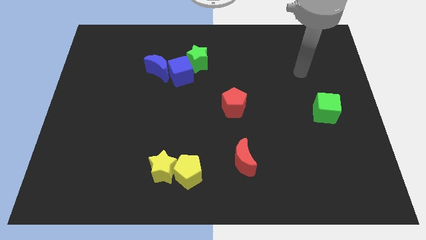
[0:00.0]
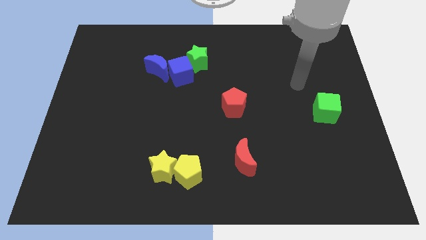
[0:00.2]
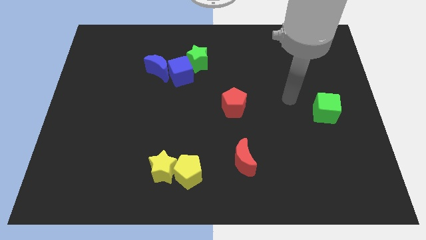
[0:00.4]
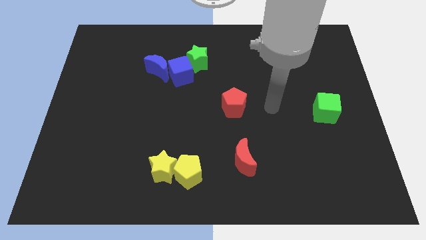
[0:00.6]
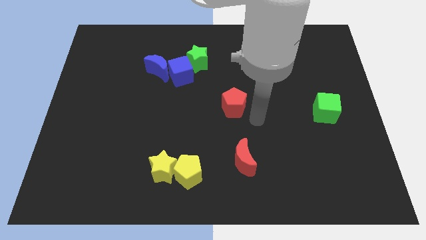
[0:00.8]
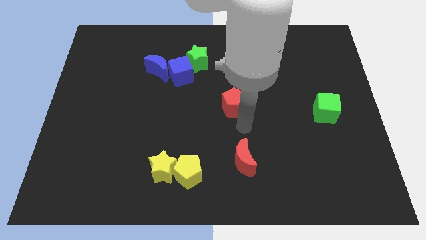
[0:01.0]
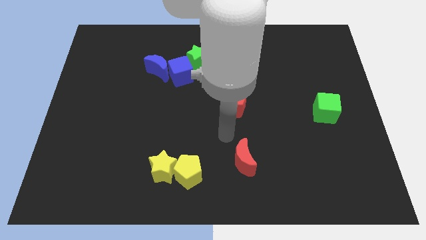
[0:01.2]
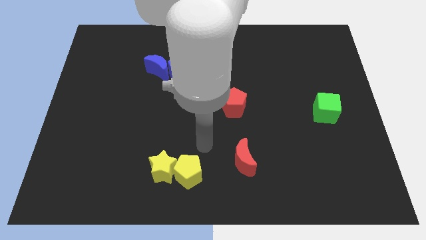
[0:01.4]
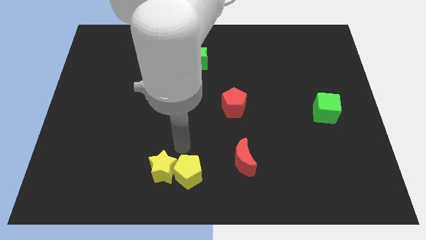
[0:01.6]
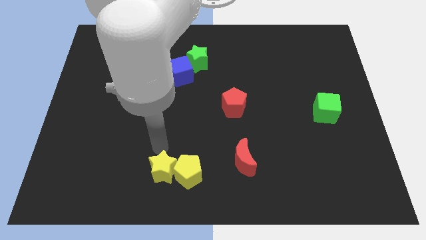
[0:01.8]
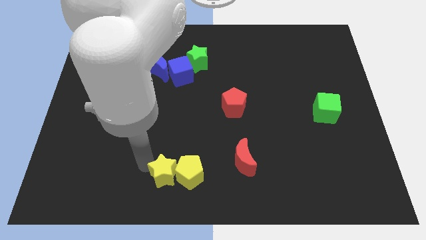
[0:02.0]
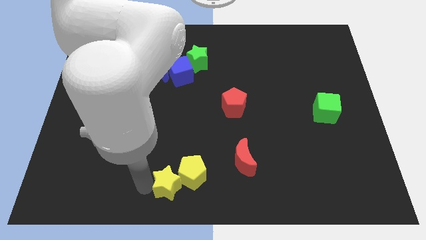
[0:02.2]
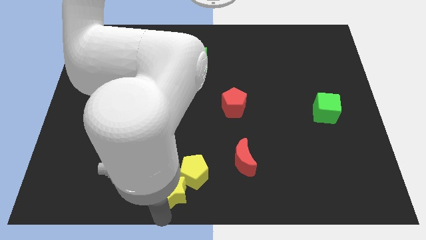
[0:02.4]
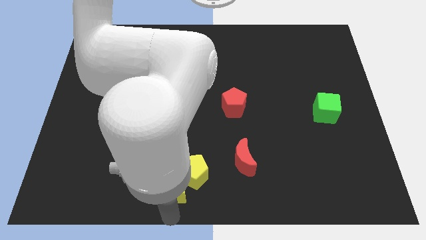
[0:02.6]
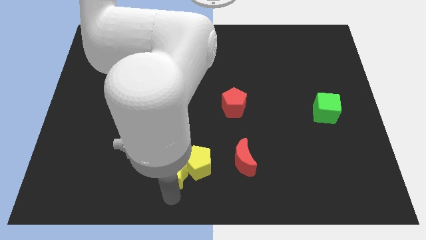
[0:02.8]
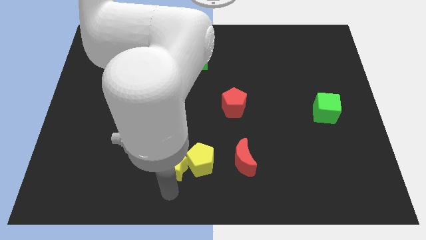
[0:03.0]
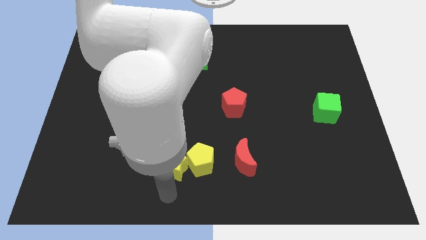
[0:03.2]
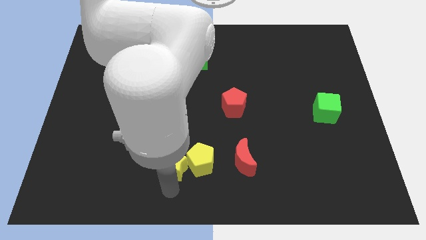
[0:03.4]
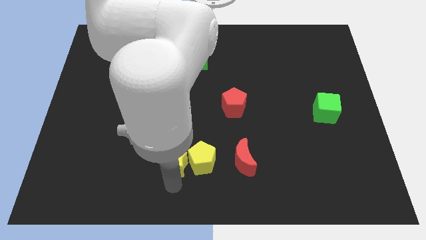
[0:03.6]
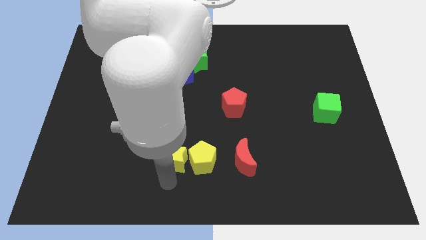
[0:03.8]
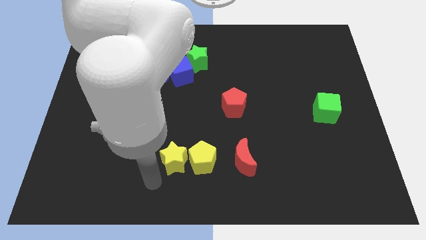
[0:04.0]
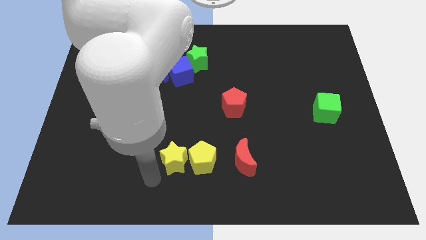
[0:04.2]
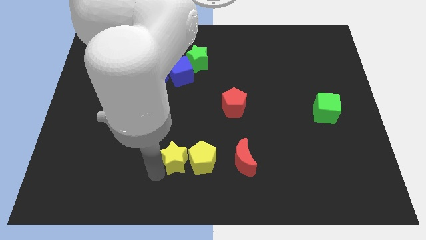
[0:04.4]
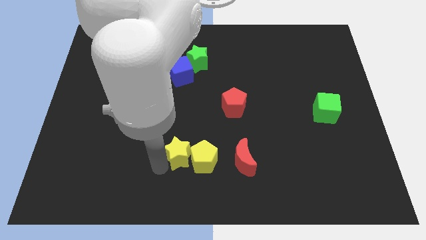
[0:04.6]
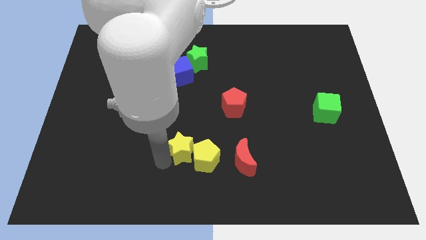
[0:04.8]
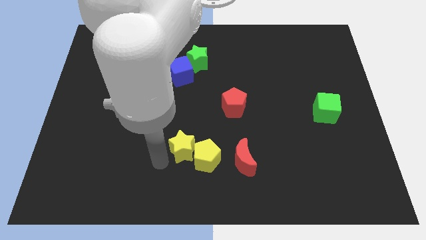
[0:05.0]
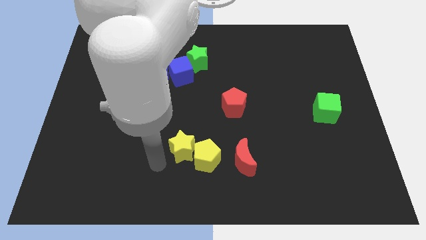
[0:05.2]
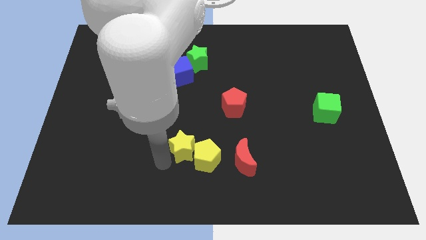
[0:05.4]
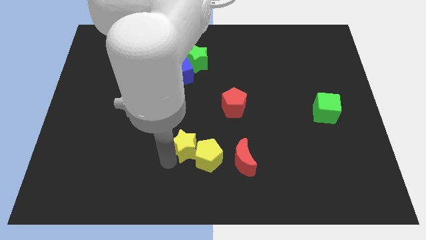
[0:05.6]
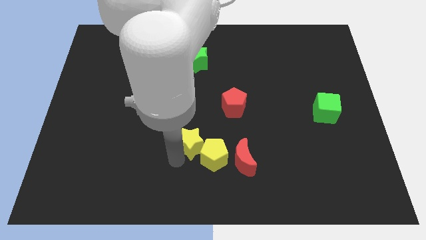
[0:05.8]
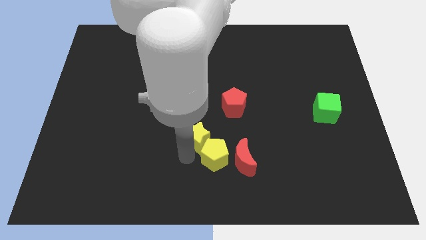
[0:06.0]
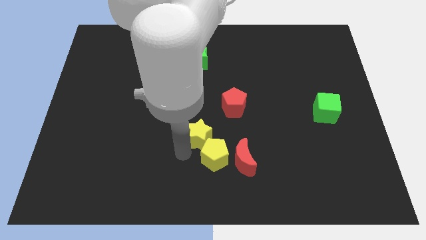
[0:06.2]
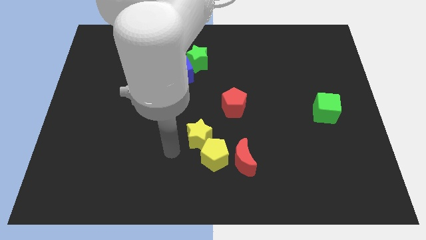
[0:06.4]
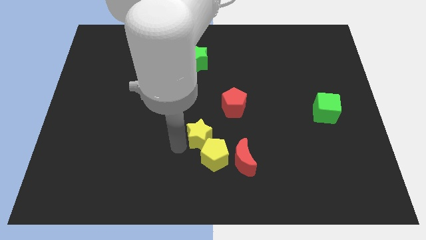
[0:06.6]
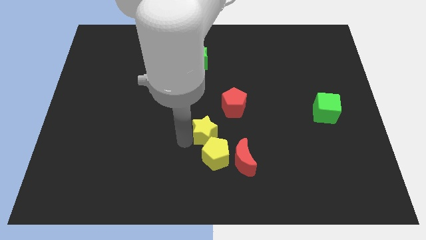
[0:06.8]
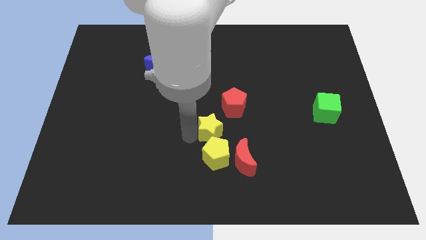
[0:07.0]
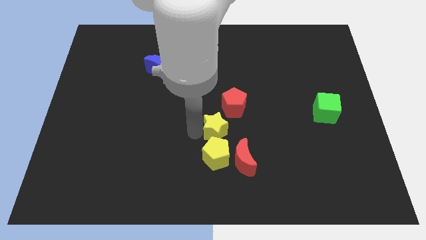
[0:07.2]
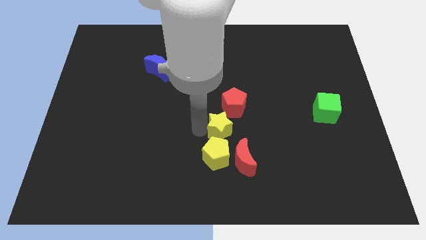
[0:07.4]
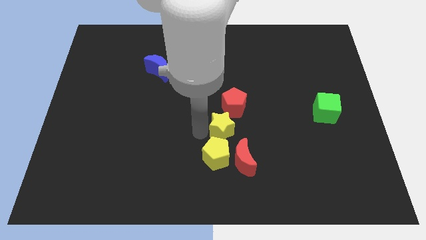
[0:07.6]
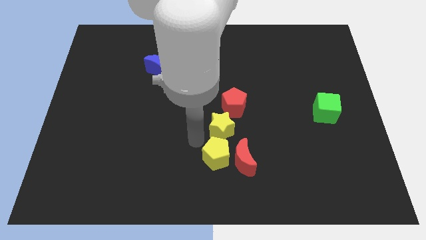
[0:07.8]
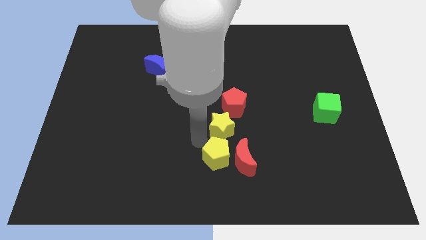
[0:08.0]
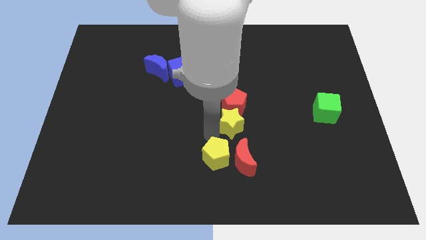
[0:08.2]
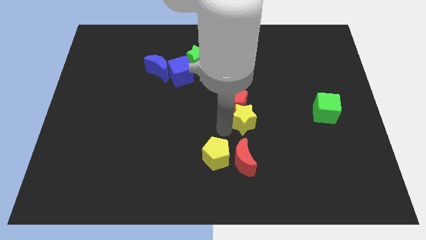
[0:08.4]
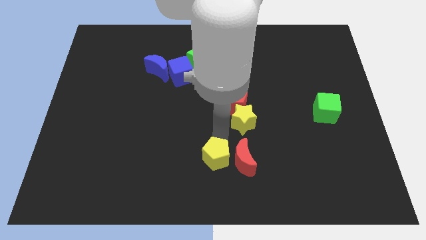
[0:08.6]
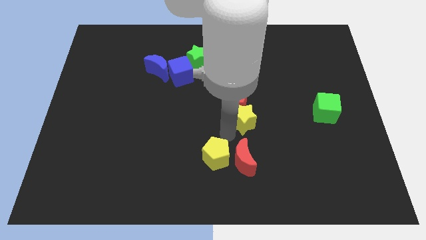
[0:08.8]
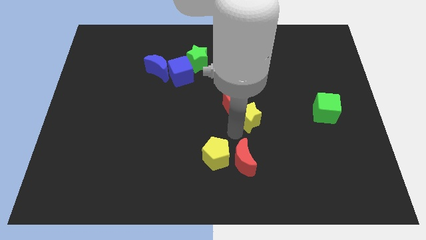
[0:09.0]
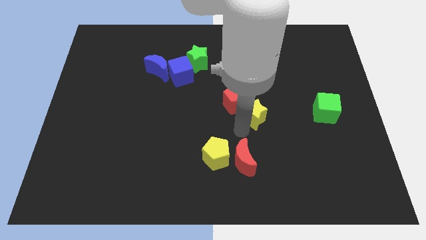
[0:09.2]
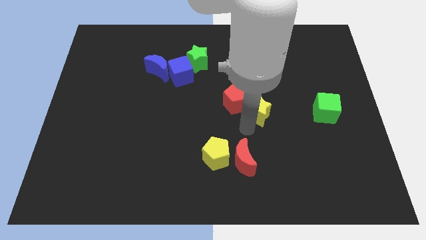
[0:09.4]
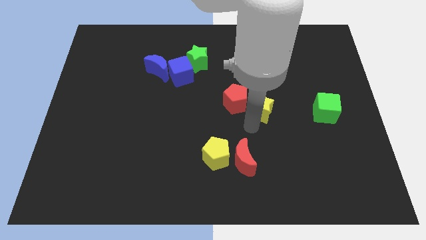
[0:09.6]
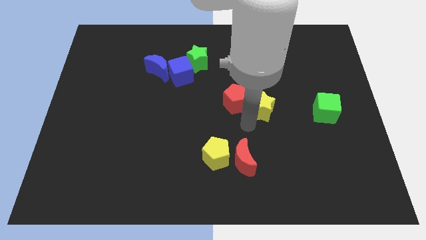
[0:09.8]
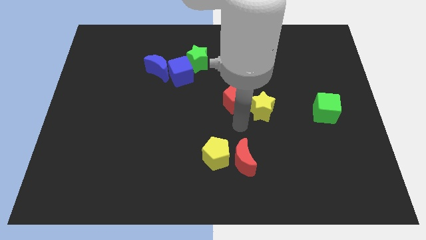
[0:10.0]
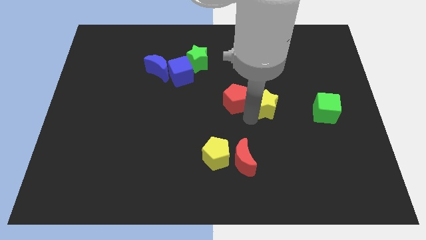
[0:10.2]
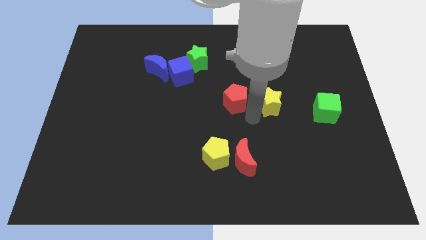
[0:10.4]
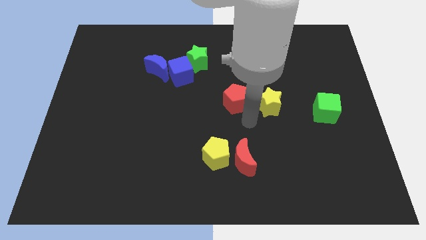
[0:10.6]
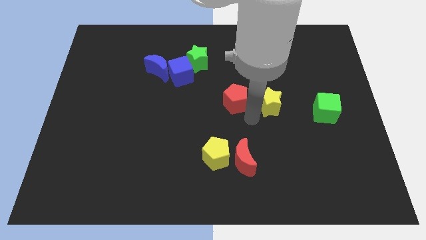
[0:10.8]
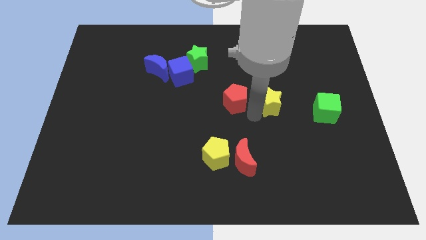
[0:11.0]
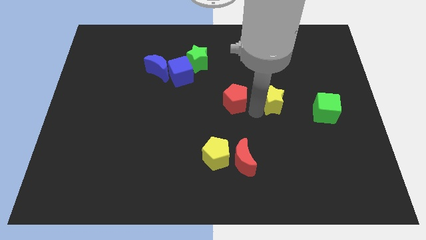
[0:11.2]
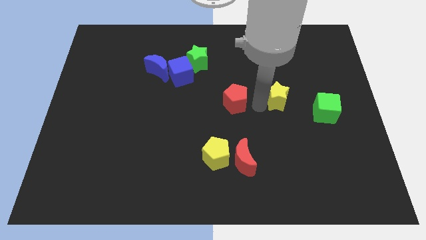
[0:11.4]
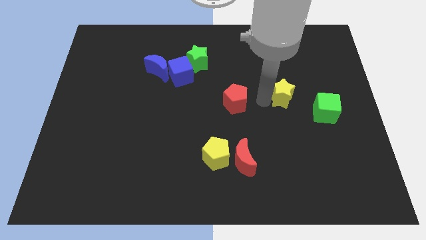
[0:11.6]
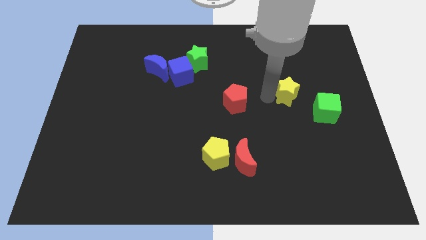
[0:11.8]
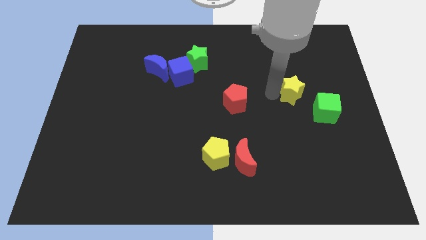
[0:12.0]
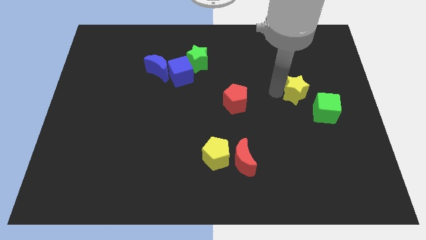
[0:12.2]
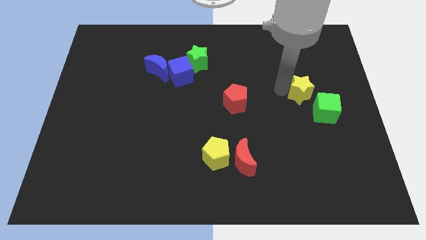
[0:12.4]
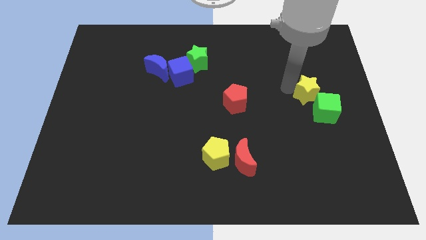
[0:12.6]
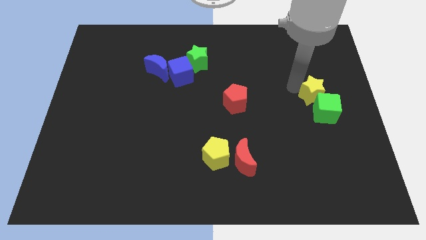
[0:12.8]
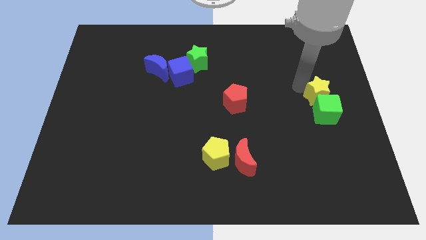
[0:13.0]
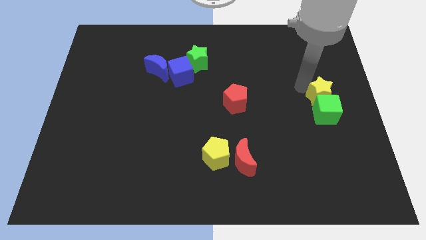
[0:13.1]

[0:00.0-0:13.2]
put the yellow star to the right side of the board
